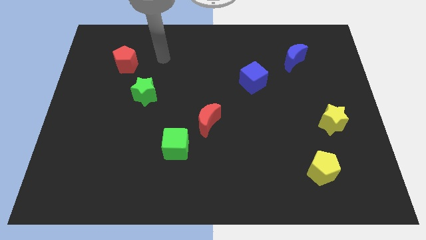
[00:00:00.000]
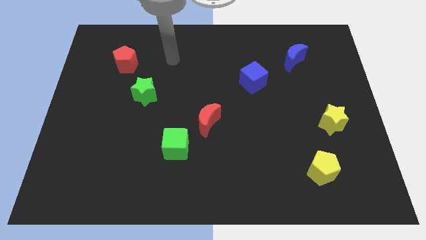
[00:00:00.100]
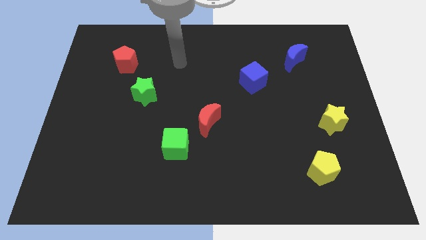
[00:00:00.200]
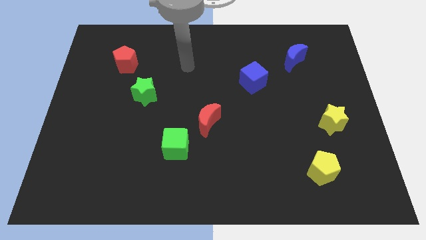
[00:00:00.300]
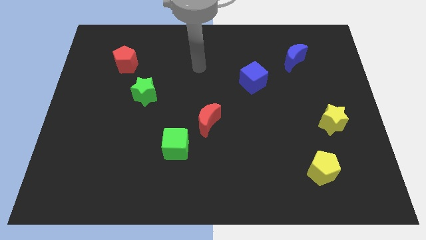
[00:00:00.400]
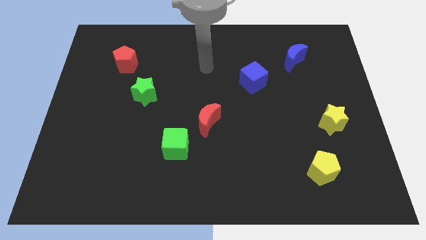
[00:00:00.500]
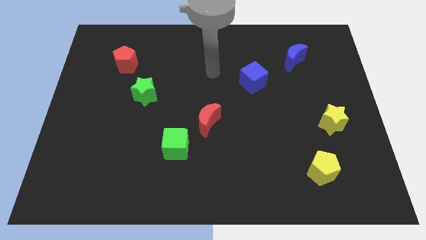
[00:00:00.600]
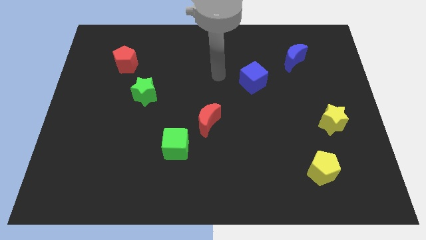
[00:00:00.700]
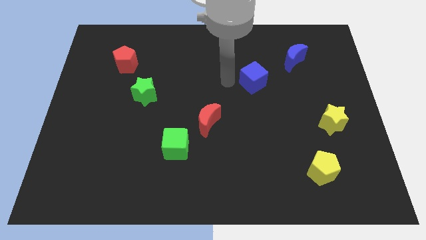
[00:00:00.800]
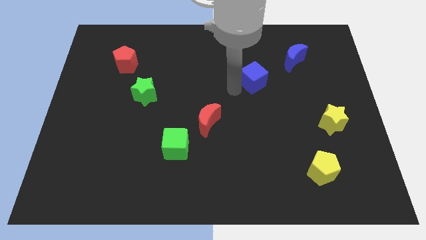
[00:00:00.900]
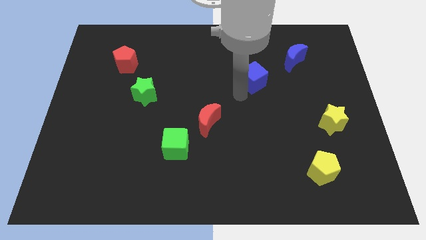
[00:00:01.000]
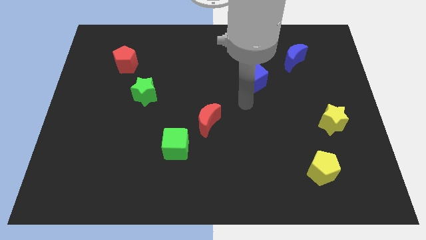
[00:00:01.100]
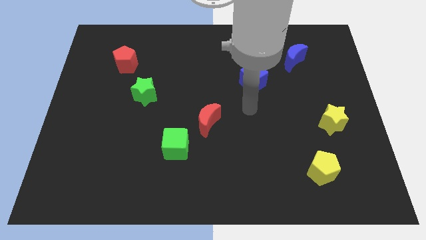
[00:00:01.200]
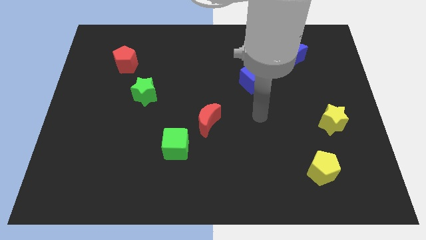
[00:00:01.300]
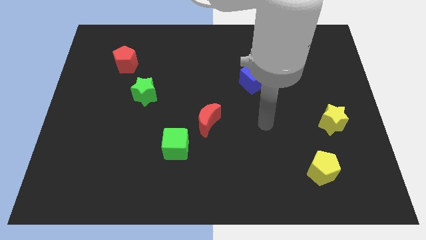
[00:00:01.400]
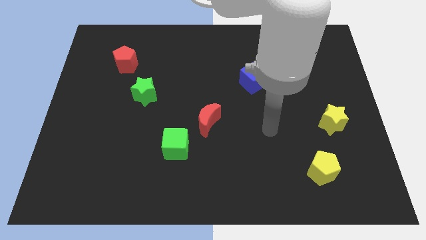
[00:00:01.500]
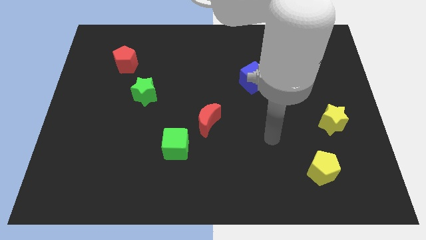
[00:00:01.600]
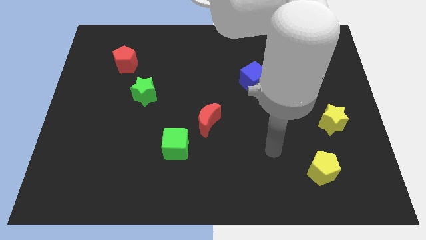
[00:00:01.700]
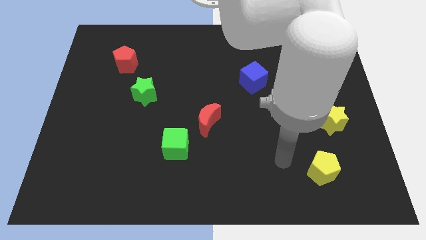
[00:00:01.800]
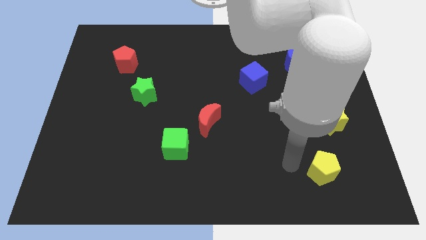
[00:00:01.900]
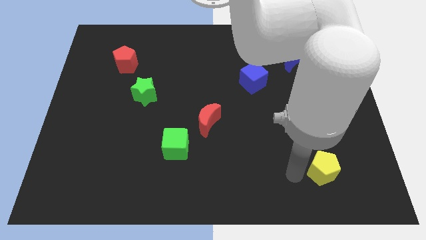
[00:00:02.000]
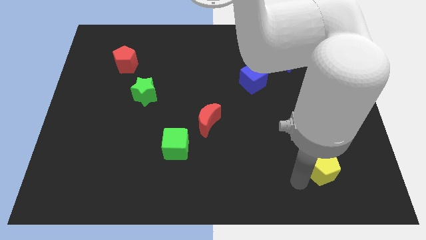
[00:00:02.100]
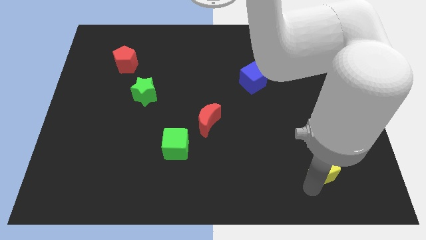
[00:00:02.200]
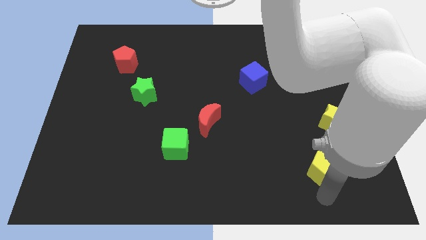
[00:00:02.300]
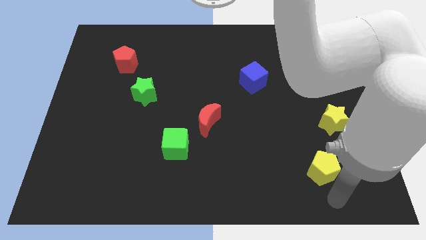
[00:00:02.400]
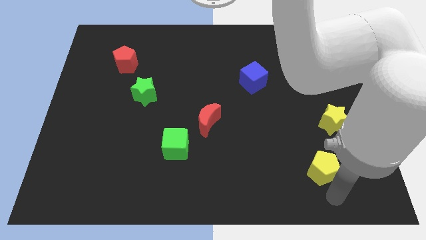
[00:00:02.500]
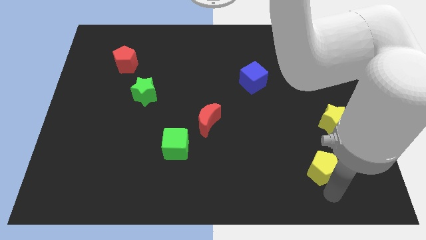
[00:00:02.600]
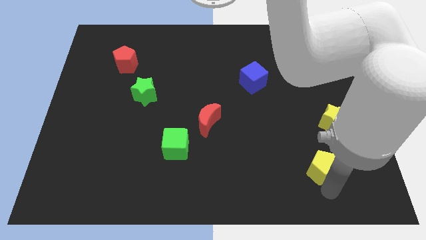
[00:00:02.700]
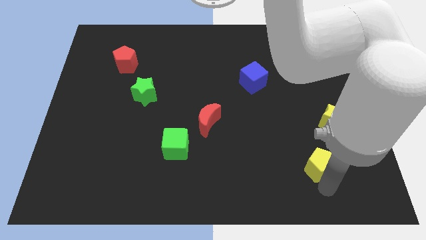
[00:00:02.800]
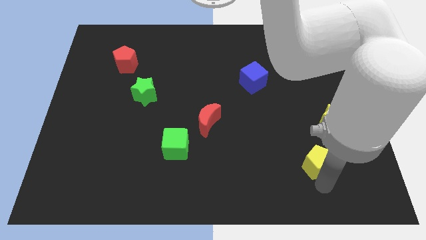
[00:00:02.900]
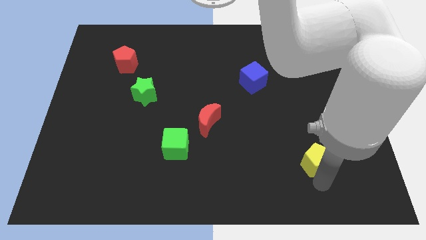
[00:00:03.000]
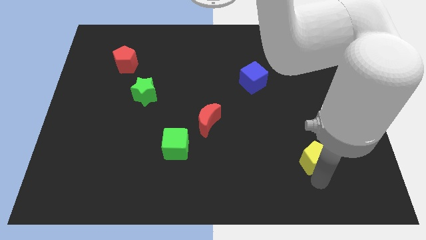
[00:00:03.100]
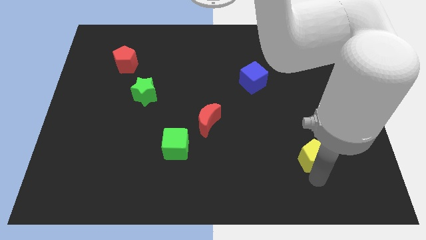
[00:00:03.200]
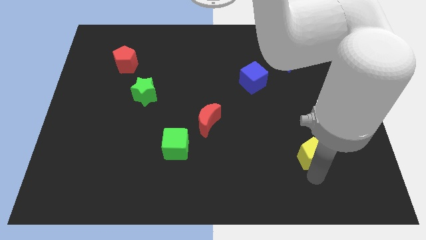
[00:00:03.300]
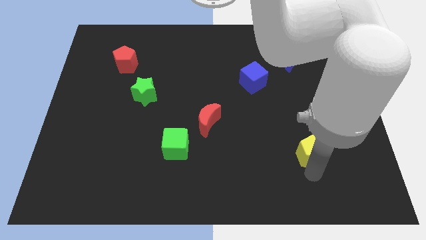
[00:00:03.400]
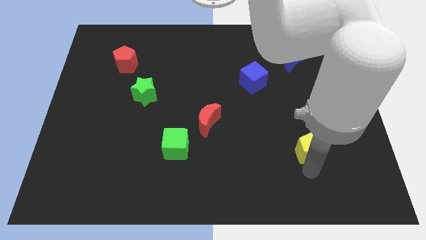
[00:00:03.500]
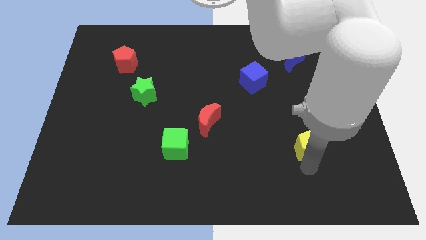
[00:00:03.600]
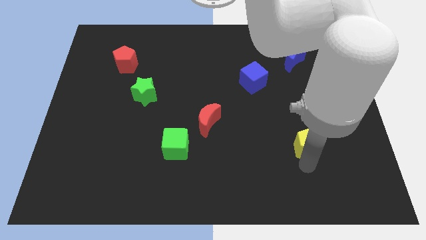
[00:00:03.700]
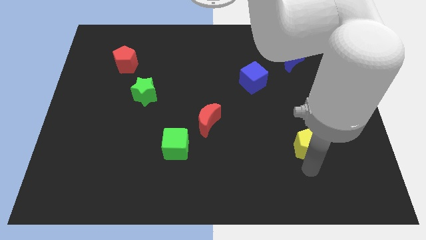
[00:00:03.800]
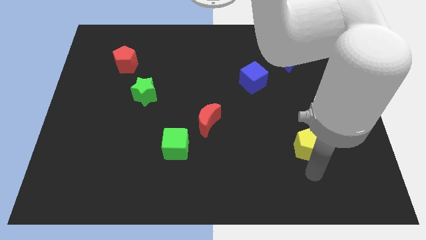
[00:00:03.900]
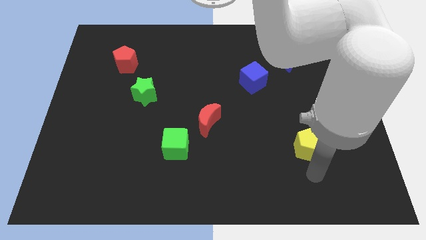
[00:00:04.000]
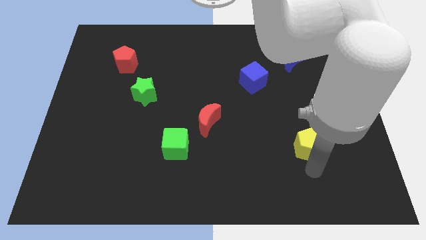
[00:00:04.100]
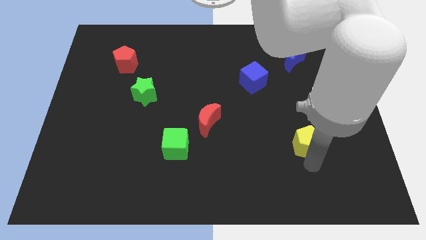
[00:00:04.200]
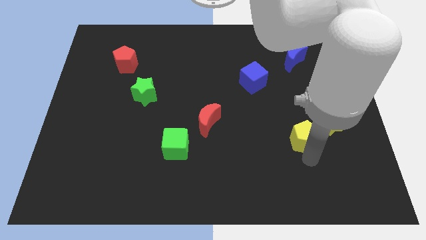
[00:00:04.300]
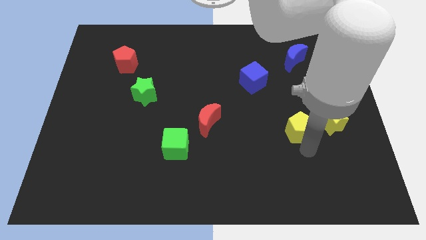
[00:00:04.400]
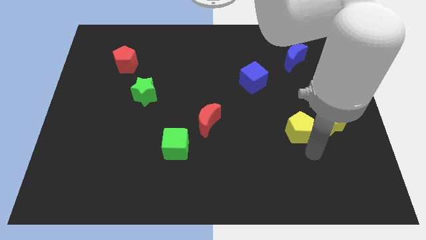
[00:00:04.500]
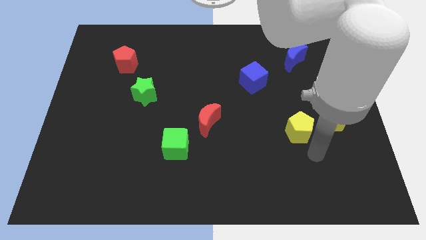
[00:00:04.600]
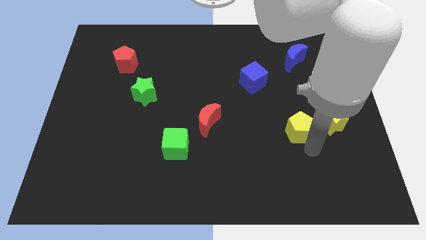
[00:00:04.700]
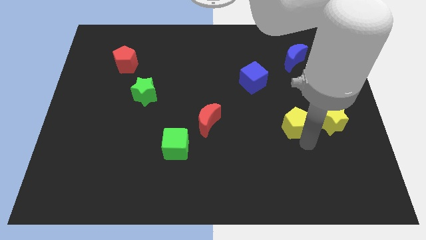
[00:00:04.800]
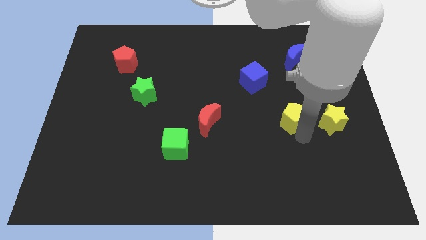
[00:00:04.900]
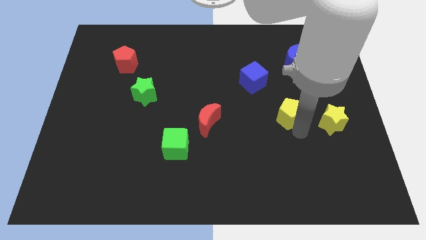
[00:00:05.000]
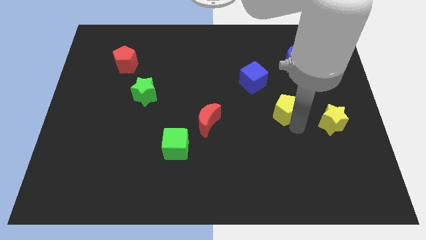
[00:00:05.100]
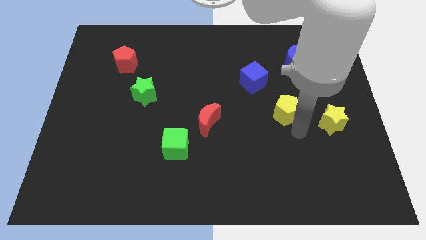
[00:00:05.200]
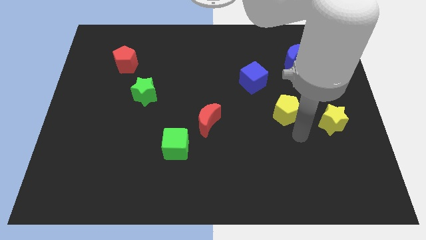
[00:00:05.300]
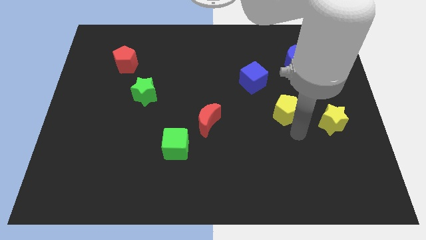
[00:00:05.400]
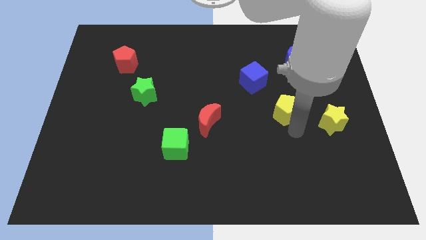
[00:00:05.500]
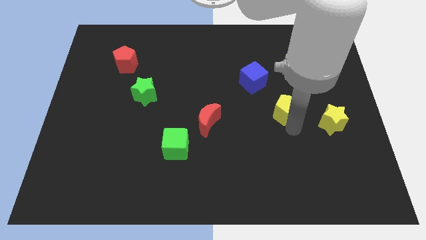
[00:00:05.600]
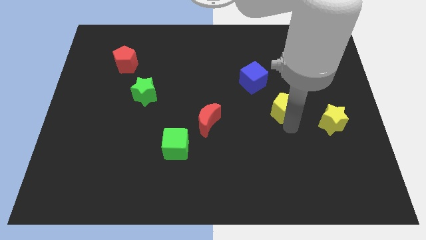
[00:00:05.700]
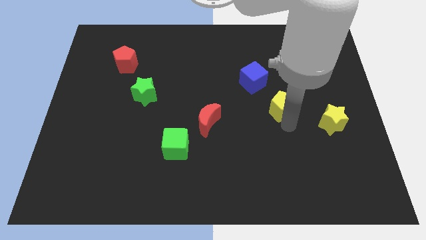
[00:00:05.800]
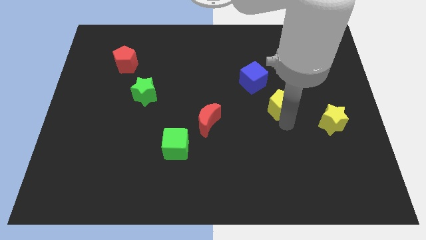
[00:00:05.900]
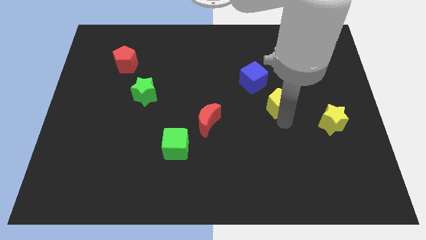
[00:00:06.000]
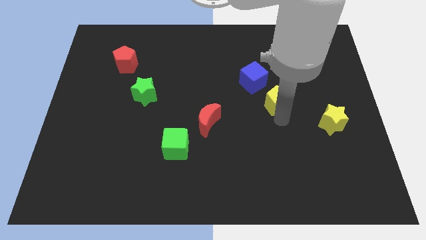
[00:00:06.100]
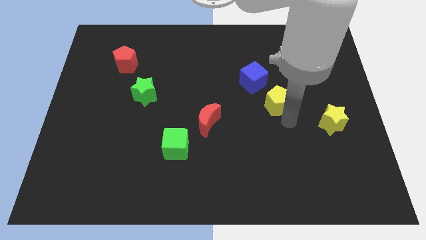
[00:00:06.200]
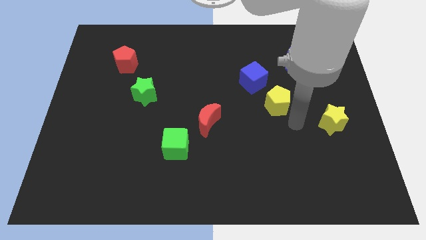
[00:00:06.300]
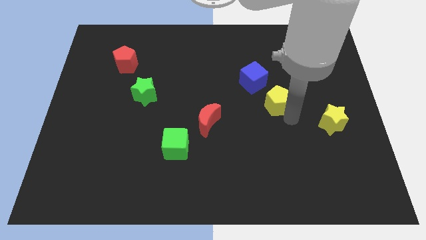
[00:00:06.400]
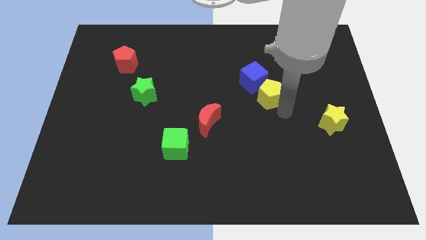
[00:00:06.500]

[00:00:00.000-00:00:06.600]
move the yellow pentagon close to the blue cube
